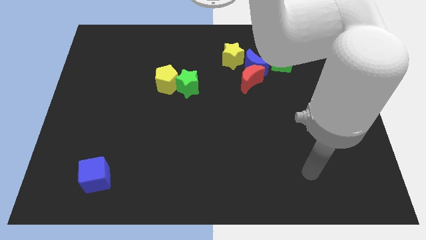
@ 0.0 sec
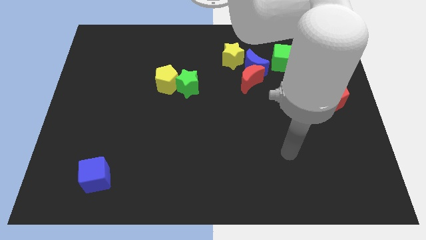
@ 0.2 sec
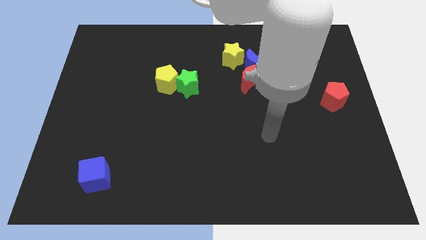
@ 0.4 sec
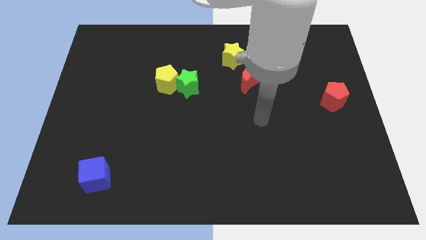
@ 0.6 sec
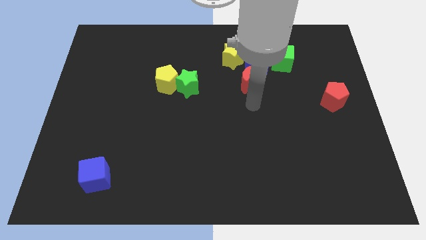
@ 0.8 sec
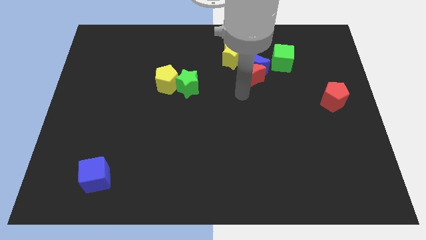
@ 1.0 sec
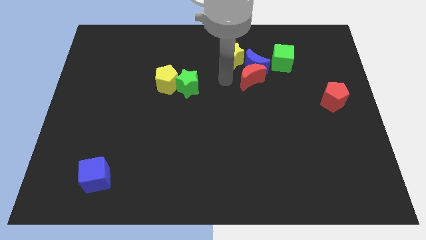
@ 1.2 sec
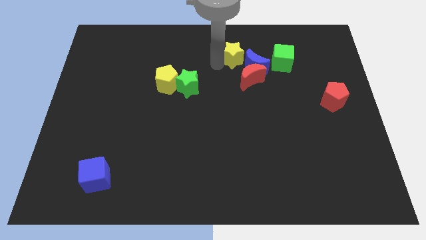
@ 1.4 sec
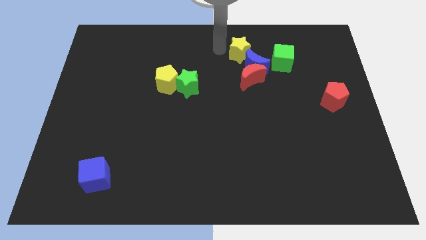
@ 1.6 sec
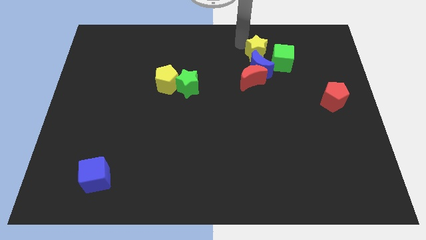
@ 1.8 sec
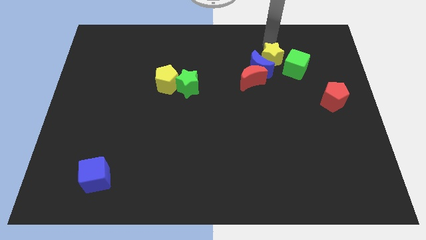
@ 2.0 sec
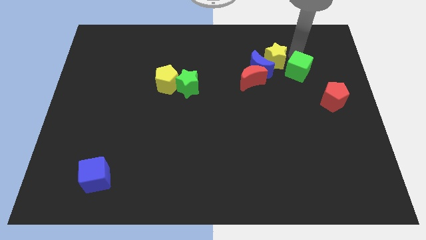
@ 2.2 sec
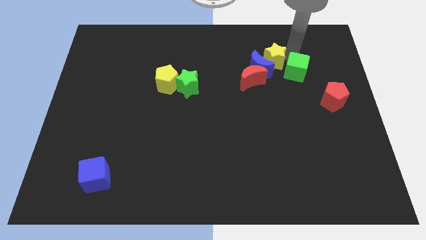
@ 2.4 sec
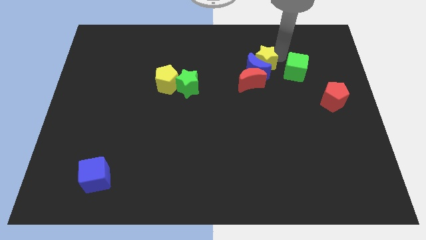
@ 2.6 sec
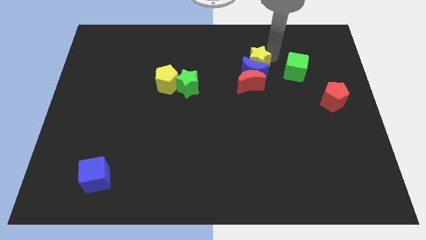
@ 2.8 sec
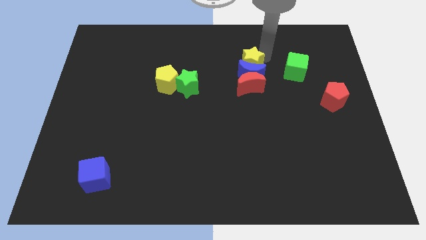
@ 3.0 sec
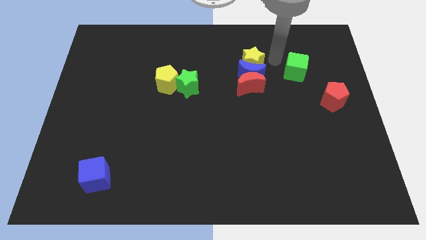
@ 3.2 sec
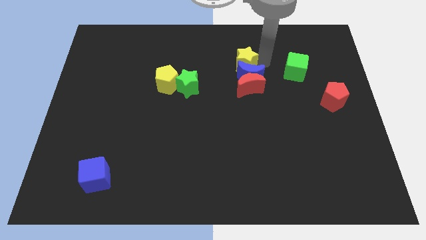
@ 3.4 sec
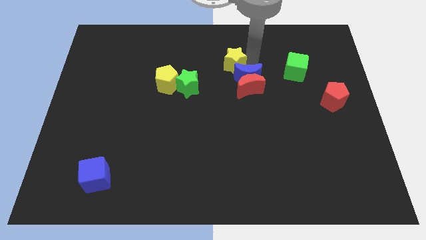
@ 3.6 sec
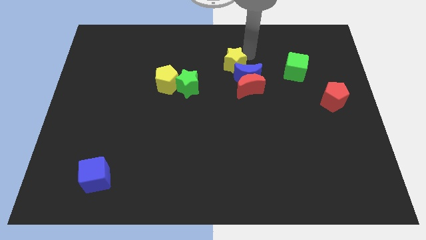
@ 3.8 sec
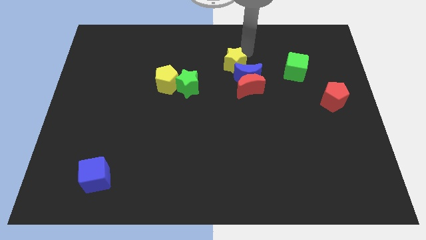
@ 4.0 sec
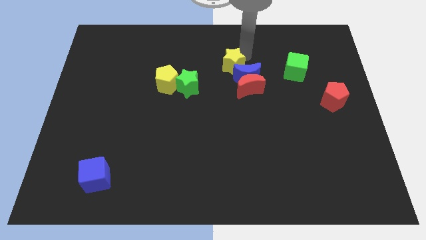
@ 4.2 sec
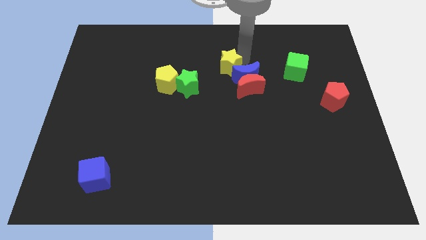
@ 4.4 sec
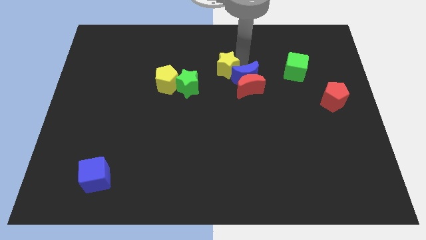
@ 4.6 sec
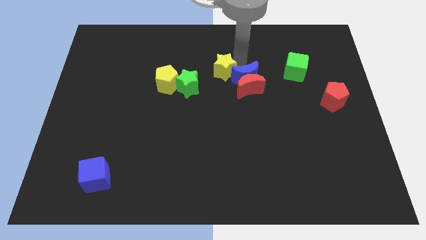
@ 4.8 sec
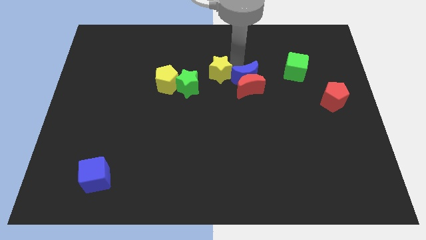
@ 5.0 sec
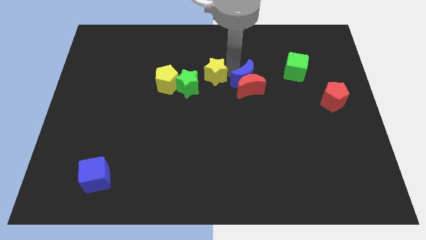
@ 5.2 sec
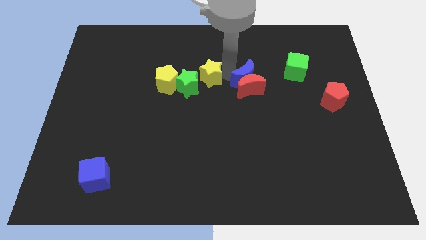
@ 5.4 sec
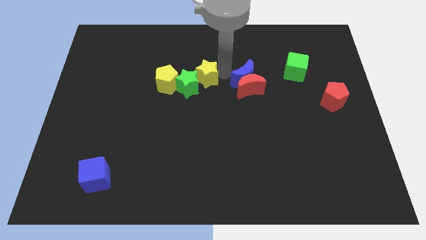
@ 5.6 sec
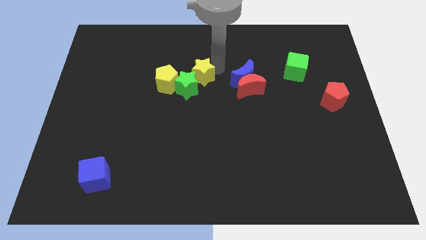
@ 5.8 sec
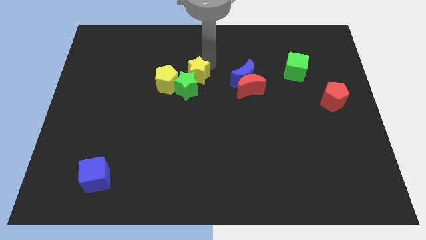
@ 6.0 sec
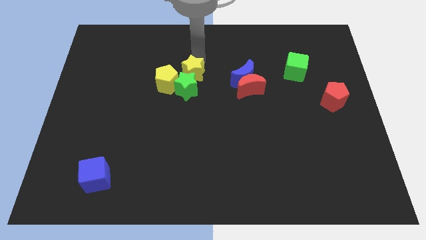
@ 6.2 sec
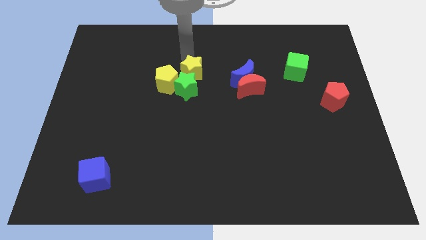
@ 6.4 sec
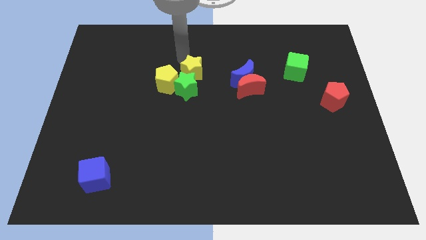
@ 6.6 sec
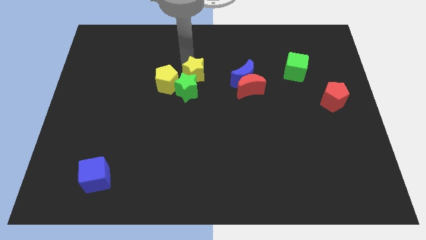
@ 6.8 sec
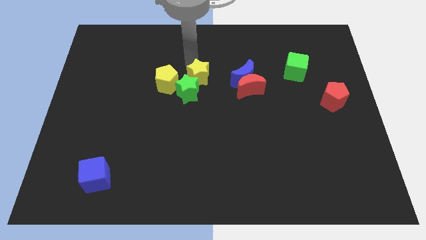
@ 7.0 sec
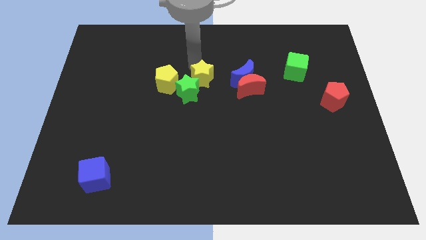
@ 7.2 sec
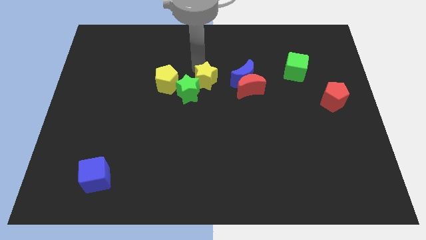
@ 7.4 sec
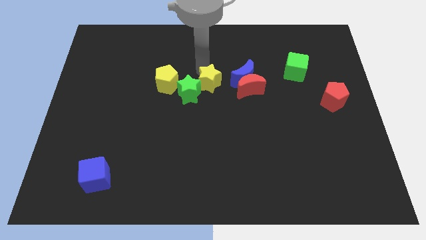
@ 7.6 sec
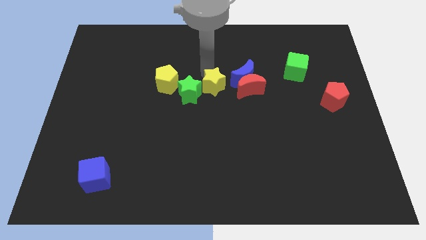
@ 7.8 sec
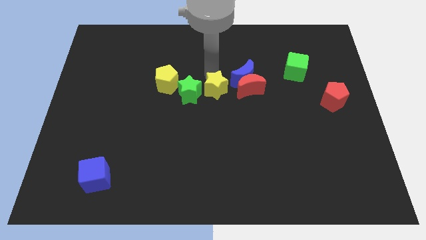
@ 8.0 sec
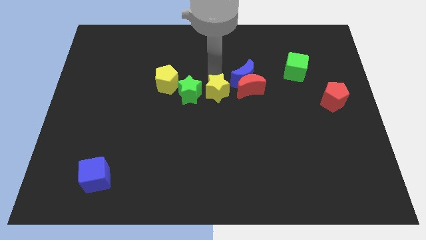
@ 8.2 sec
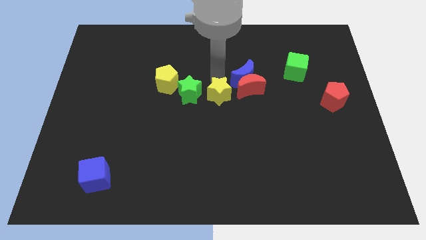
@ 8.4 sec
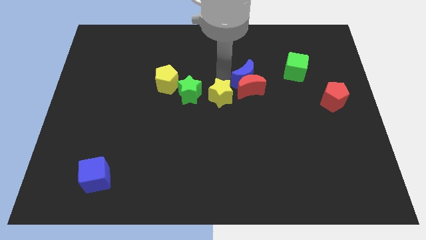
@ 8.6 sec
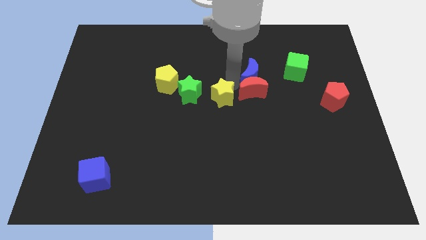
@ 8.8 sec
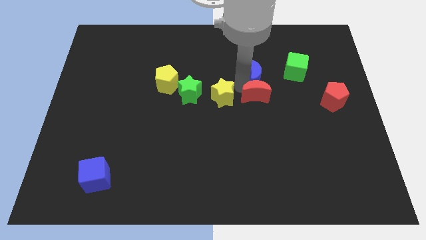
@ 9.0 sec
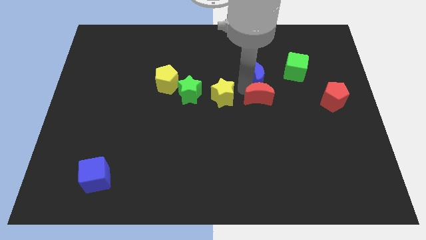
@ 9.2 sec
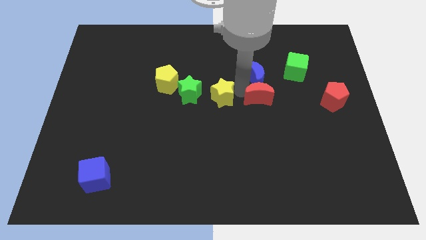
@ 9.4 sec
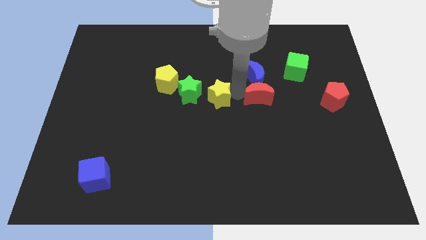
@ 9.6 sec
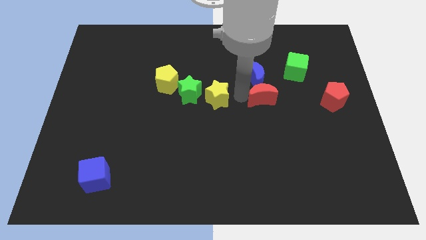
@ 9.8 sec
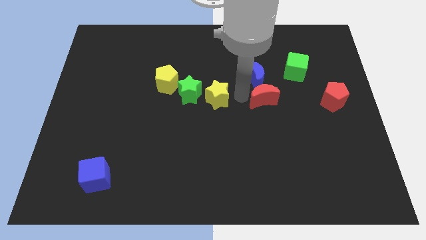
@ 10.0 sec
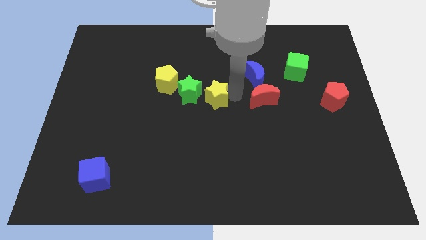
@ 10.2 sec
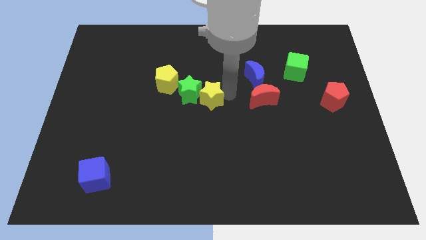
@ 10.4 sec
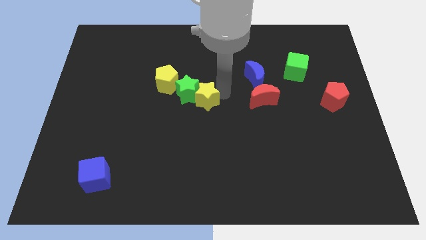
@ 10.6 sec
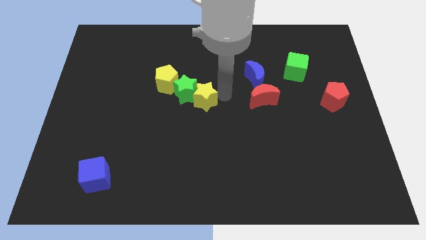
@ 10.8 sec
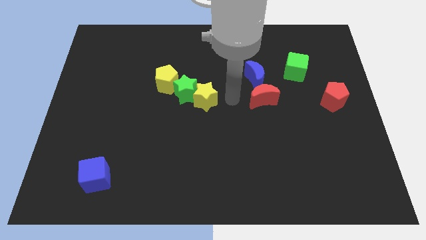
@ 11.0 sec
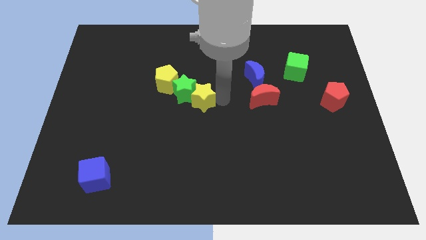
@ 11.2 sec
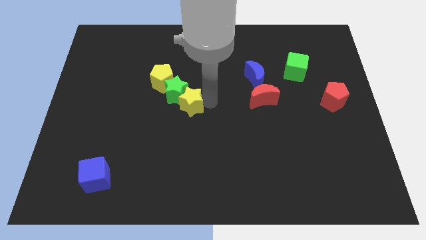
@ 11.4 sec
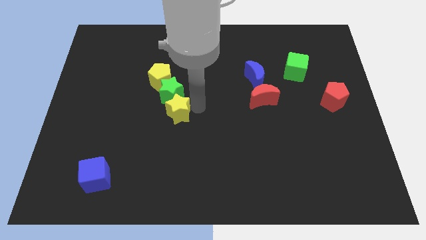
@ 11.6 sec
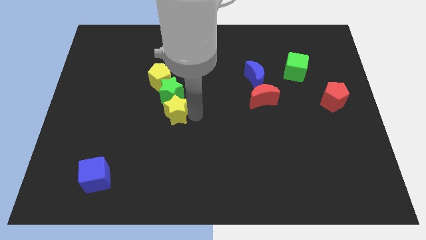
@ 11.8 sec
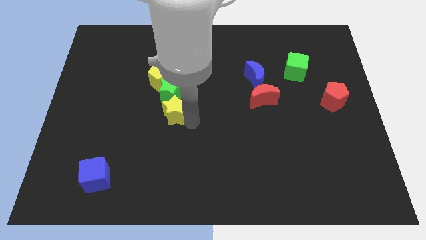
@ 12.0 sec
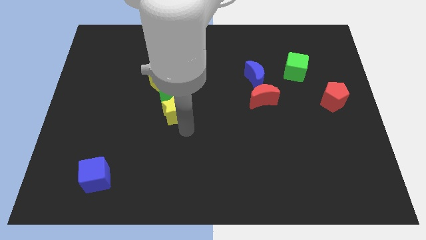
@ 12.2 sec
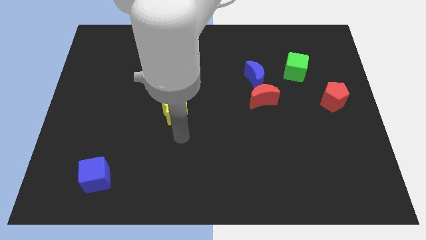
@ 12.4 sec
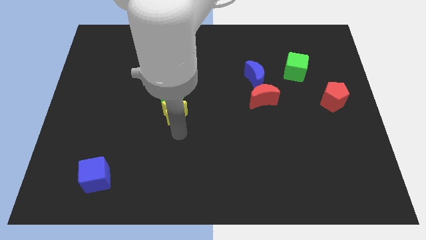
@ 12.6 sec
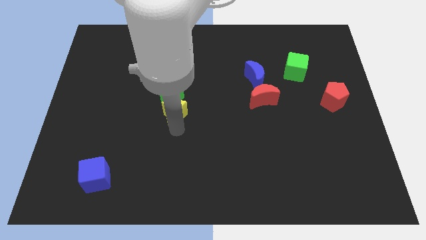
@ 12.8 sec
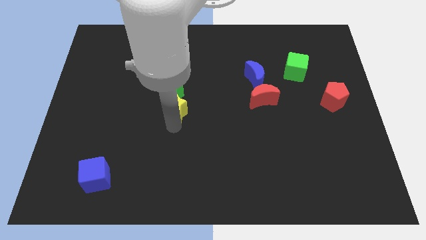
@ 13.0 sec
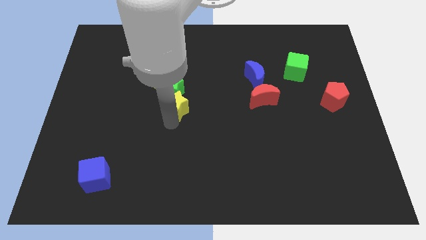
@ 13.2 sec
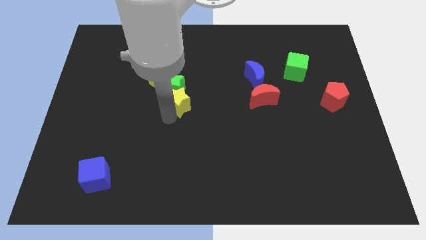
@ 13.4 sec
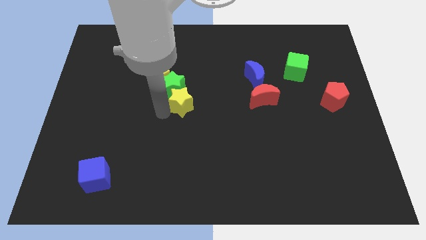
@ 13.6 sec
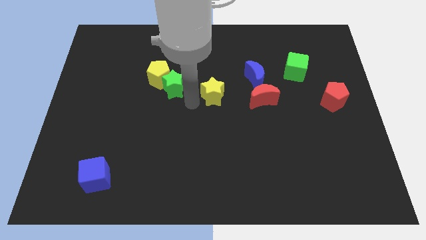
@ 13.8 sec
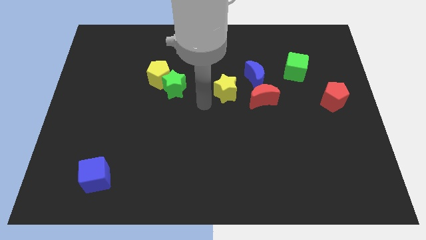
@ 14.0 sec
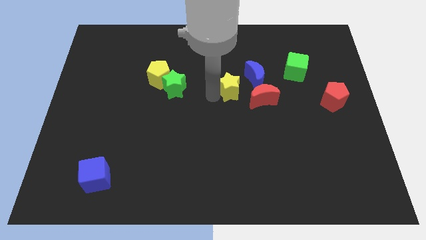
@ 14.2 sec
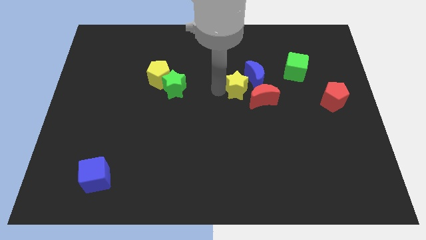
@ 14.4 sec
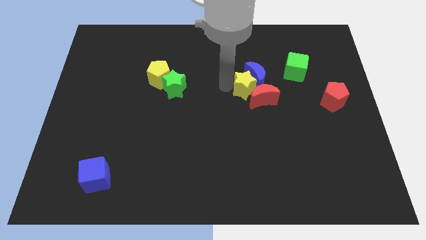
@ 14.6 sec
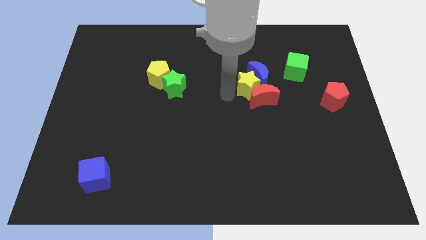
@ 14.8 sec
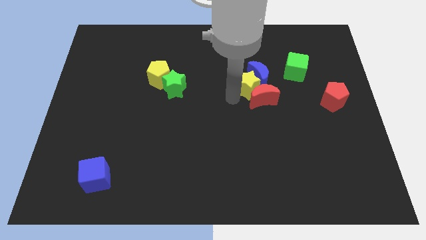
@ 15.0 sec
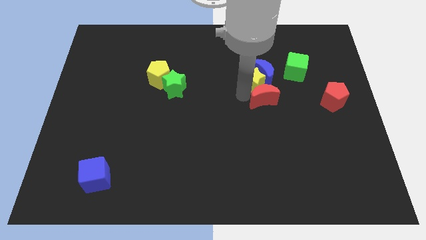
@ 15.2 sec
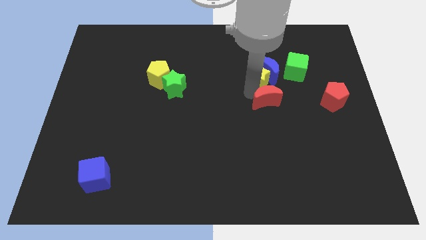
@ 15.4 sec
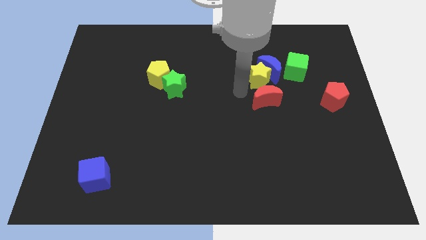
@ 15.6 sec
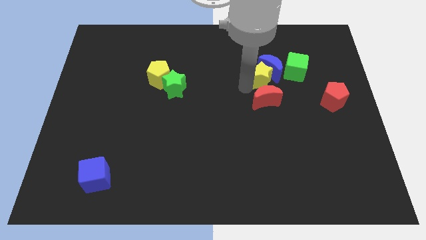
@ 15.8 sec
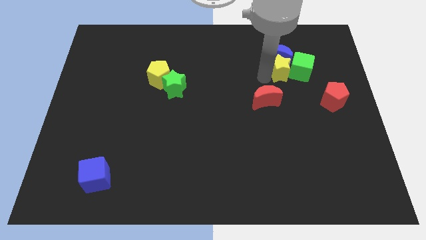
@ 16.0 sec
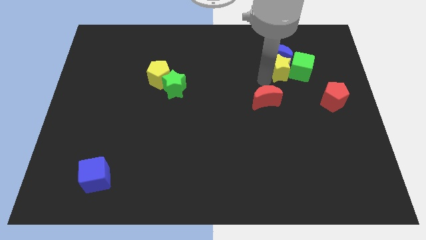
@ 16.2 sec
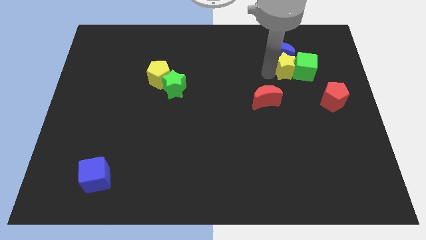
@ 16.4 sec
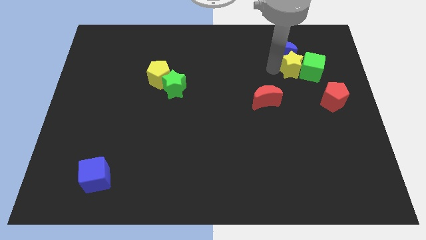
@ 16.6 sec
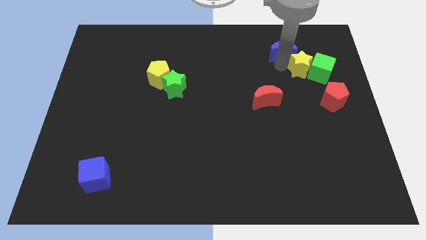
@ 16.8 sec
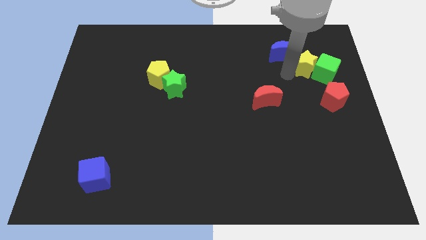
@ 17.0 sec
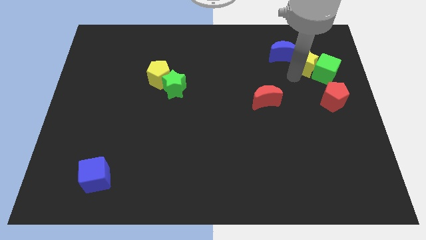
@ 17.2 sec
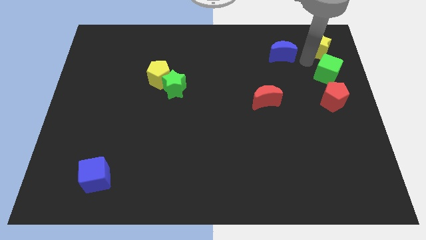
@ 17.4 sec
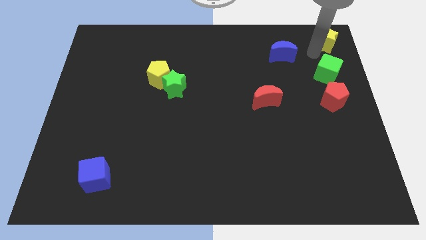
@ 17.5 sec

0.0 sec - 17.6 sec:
put the yellow star to the top right corner
